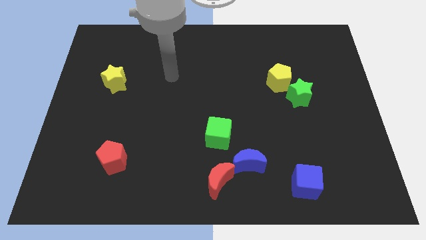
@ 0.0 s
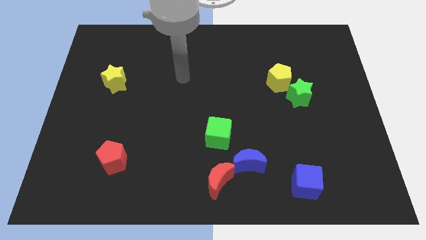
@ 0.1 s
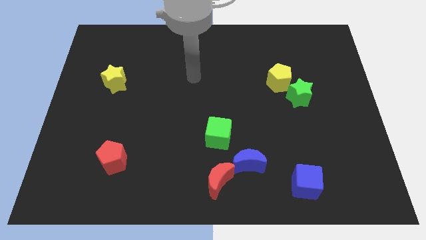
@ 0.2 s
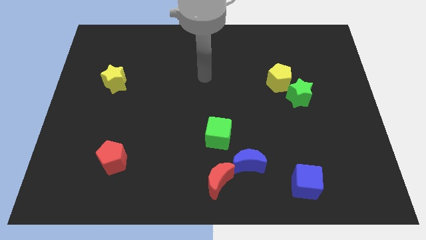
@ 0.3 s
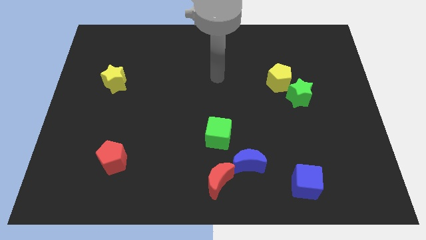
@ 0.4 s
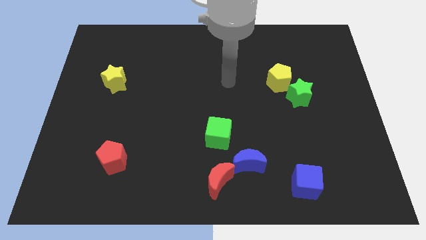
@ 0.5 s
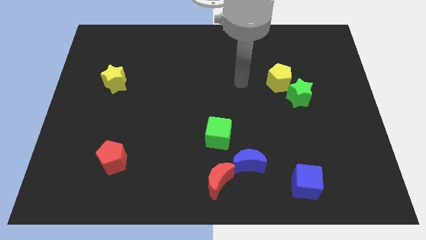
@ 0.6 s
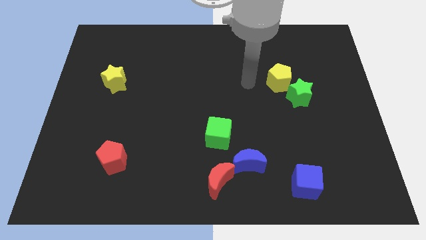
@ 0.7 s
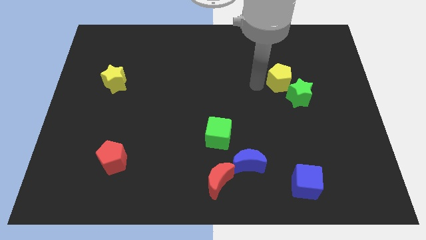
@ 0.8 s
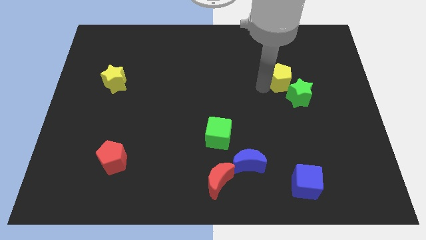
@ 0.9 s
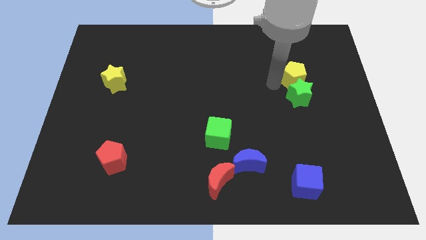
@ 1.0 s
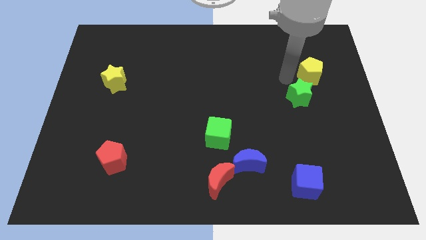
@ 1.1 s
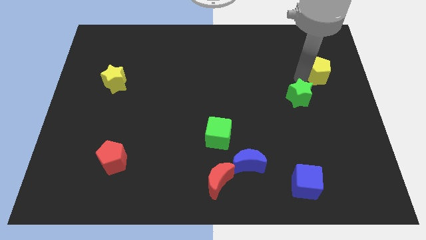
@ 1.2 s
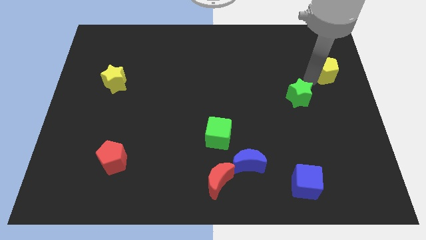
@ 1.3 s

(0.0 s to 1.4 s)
pull the green star apart from the yellow pentagon

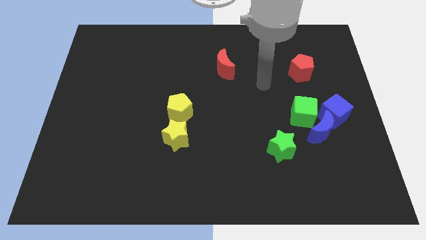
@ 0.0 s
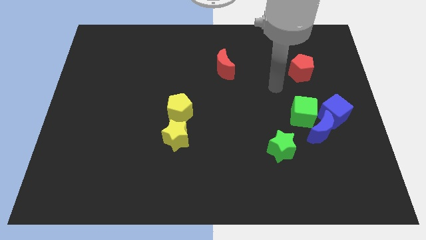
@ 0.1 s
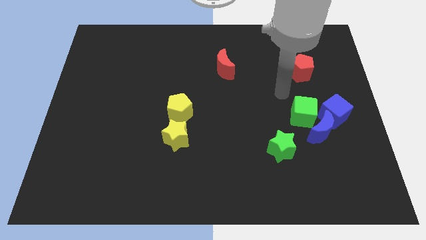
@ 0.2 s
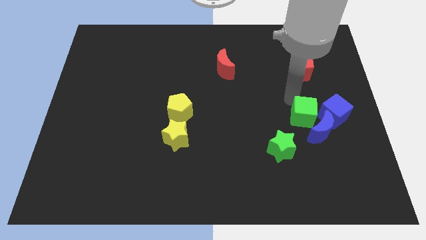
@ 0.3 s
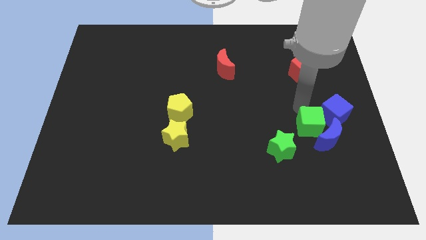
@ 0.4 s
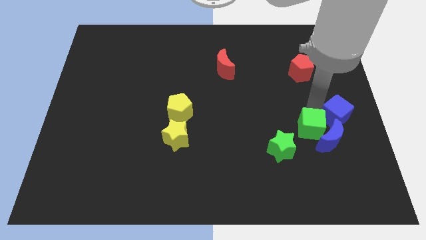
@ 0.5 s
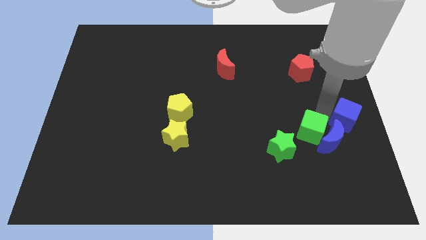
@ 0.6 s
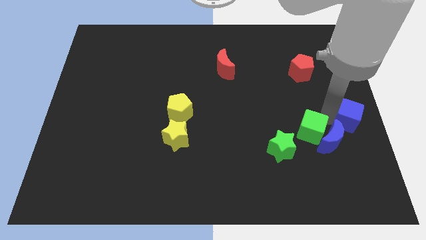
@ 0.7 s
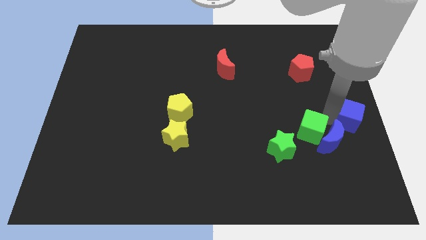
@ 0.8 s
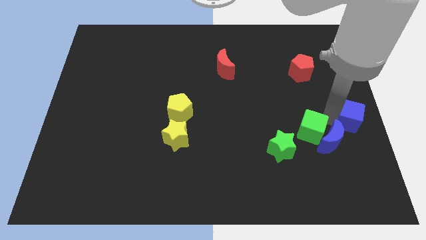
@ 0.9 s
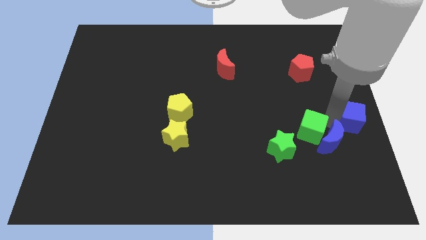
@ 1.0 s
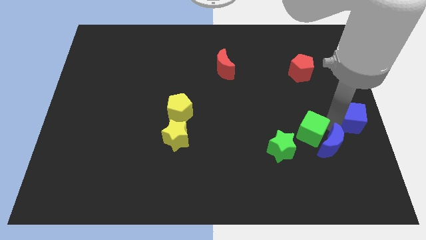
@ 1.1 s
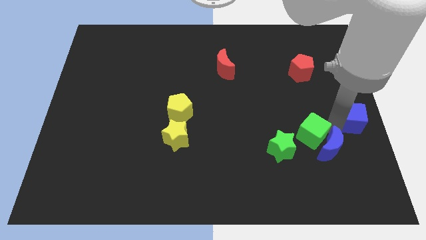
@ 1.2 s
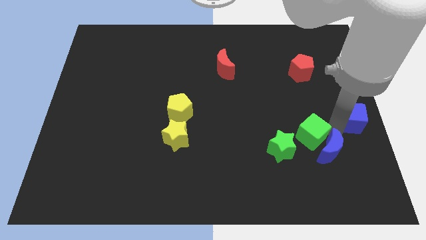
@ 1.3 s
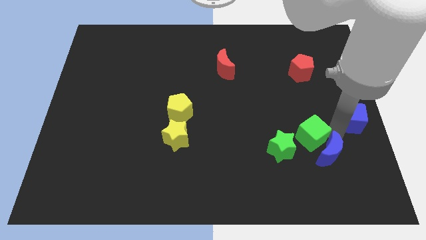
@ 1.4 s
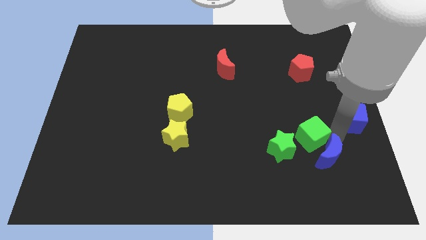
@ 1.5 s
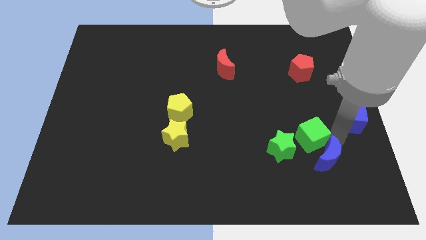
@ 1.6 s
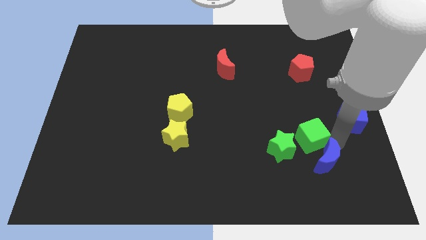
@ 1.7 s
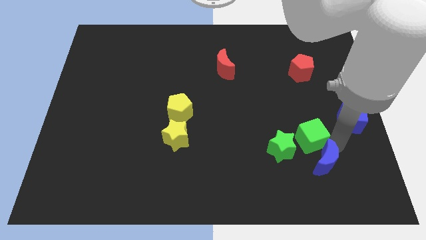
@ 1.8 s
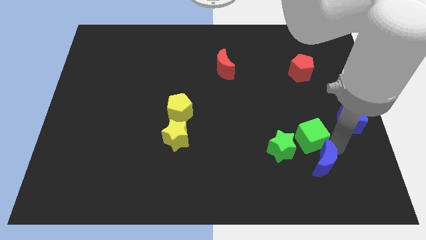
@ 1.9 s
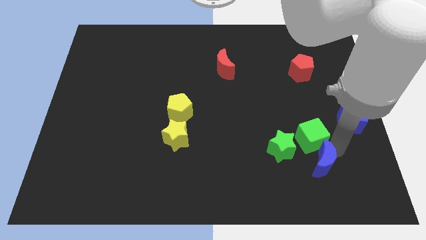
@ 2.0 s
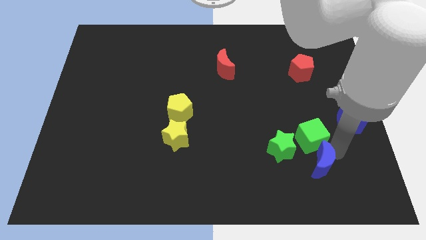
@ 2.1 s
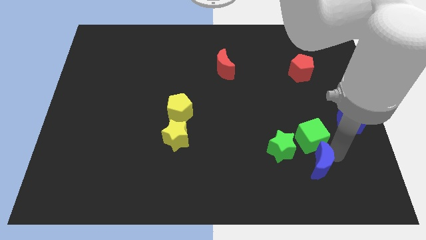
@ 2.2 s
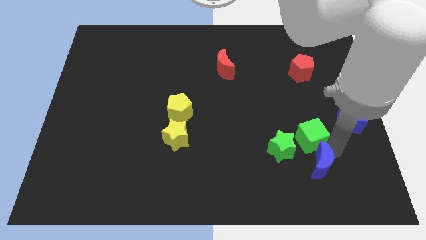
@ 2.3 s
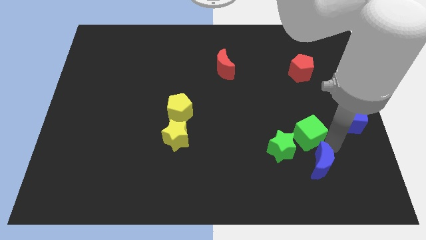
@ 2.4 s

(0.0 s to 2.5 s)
move the blue moon away from the green cube and blue cube

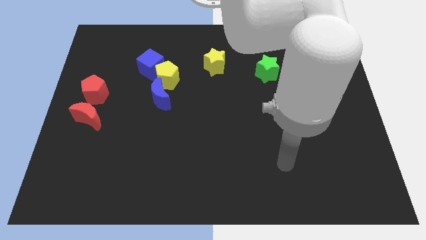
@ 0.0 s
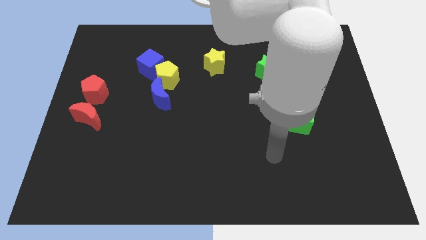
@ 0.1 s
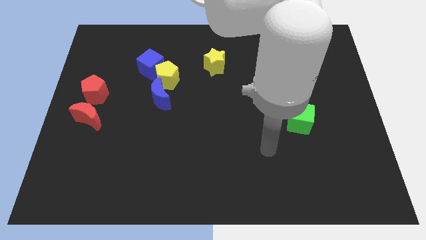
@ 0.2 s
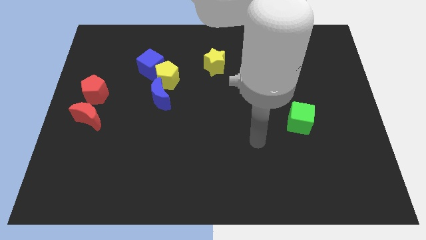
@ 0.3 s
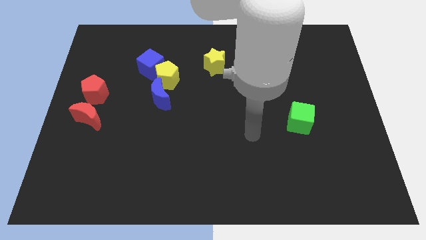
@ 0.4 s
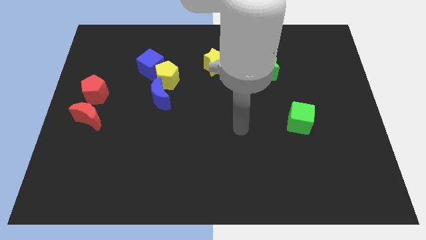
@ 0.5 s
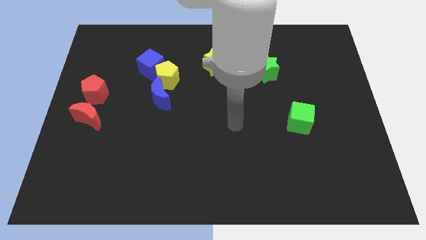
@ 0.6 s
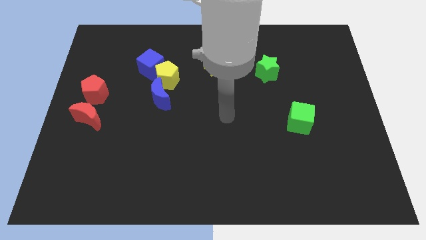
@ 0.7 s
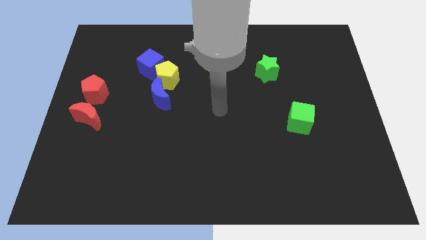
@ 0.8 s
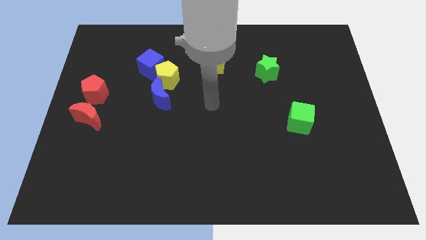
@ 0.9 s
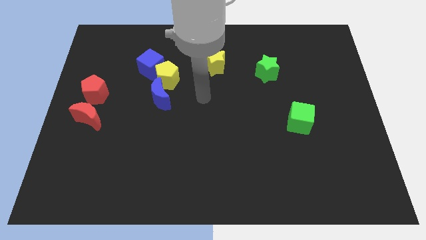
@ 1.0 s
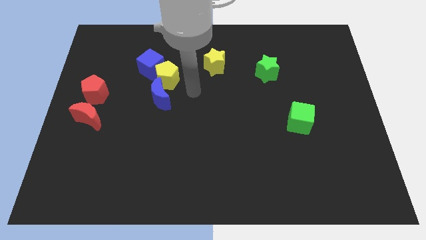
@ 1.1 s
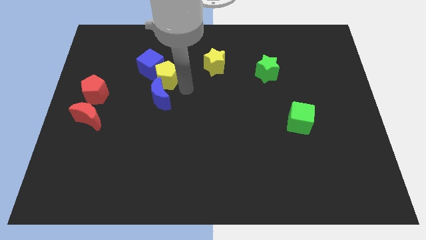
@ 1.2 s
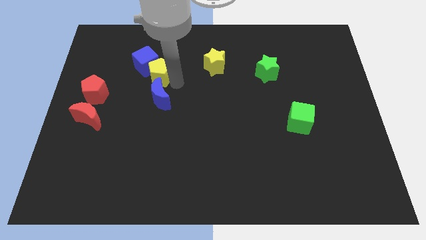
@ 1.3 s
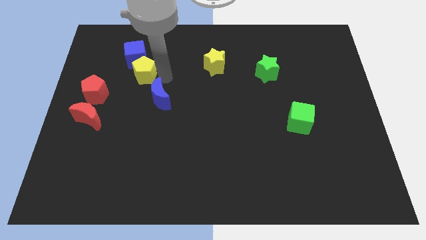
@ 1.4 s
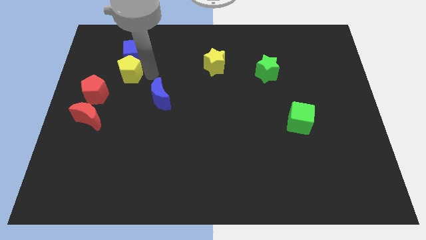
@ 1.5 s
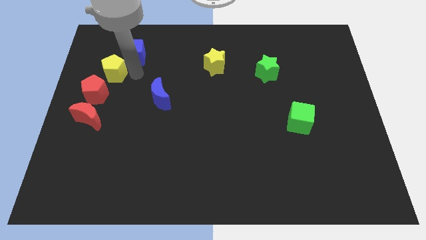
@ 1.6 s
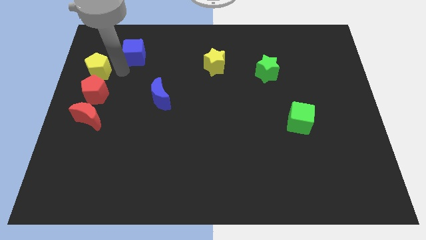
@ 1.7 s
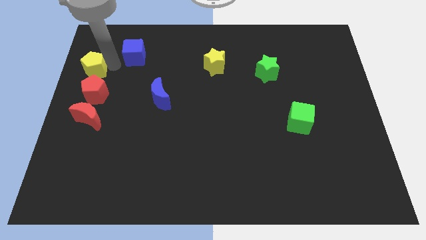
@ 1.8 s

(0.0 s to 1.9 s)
move the blue cube away from the yellow pentagon

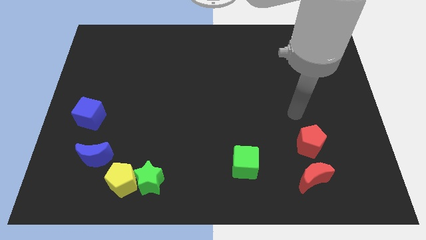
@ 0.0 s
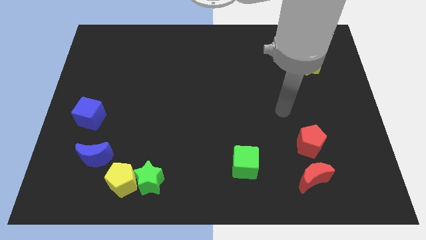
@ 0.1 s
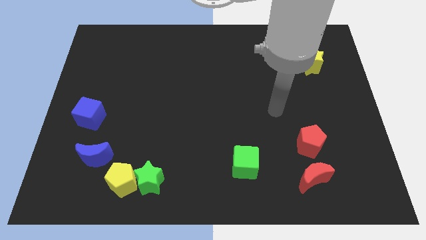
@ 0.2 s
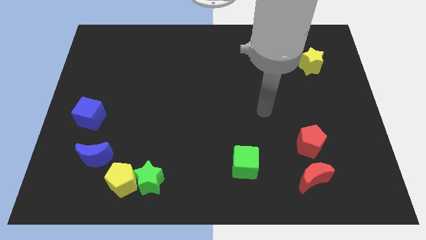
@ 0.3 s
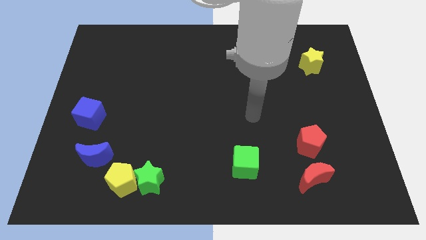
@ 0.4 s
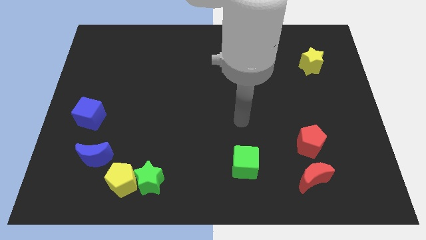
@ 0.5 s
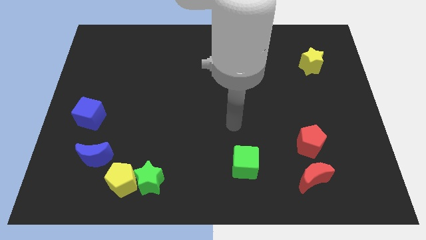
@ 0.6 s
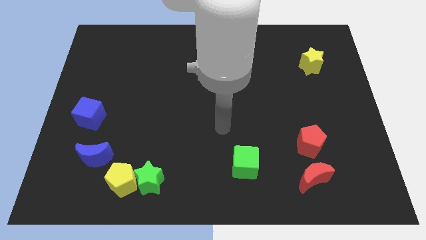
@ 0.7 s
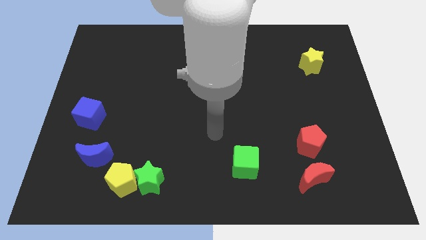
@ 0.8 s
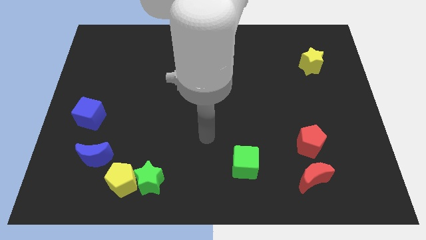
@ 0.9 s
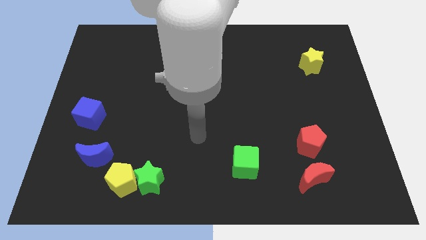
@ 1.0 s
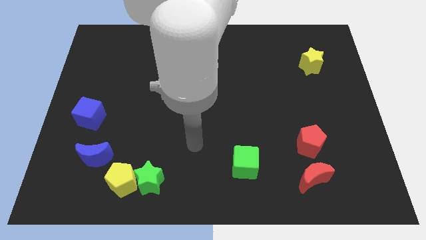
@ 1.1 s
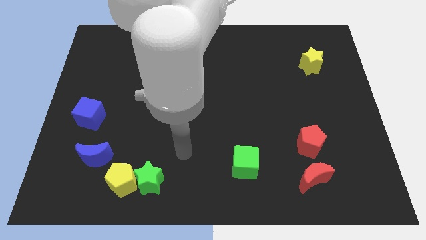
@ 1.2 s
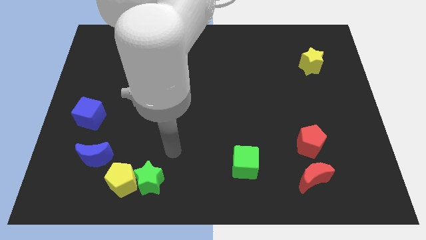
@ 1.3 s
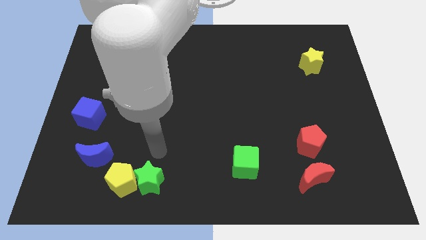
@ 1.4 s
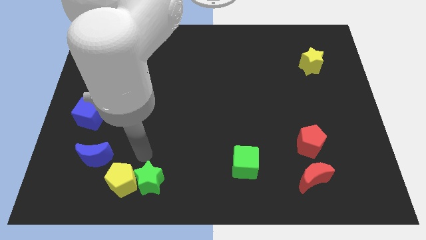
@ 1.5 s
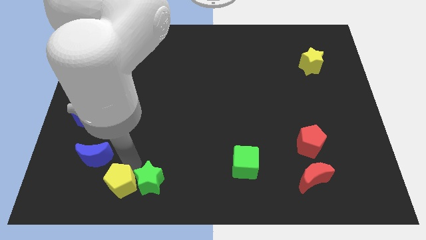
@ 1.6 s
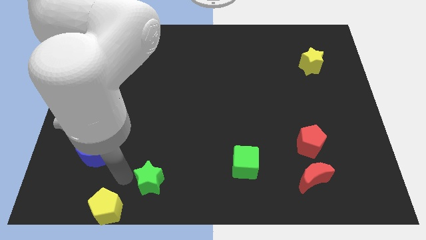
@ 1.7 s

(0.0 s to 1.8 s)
move the green star away from the yellow pentagon

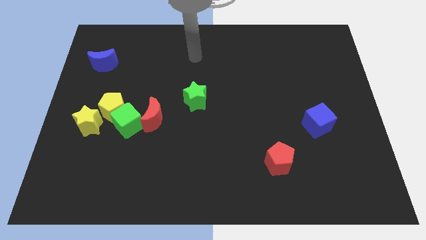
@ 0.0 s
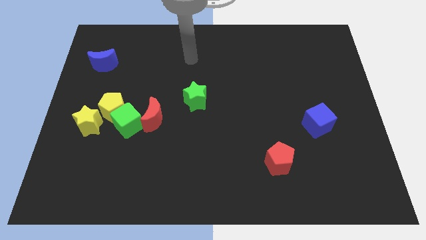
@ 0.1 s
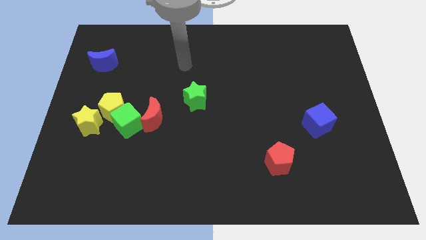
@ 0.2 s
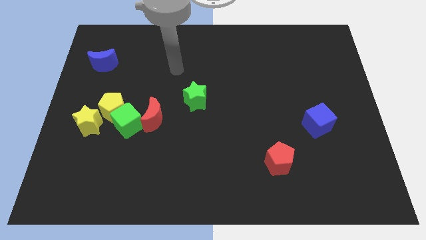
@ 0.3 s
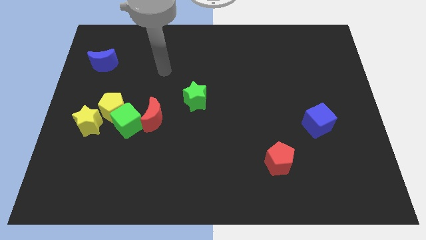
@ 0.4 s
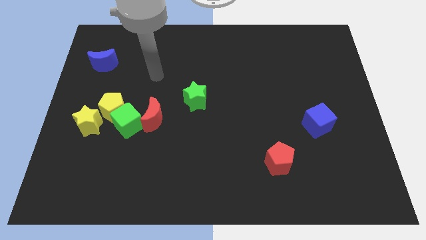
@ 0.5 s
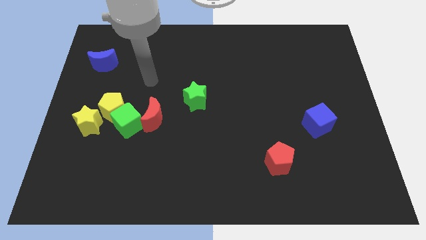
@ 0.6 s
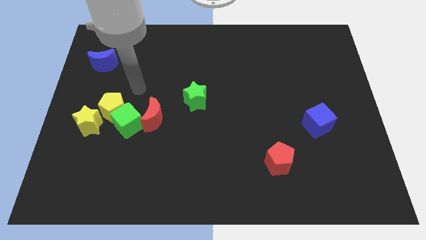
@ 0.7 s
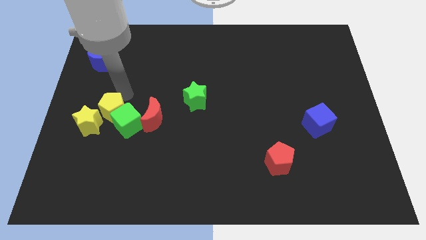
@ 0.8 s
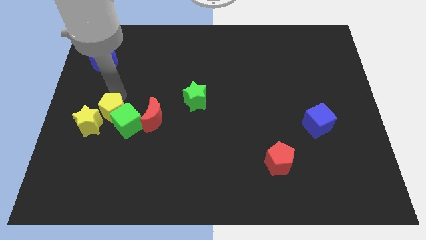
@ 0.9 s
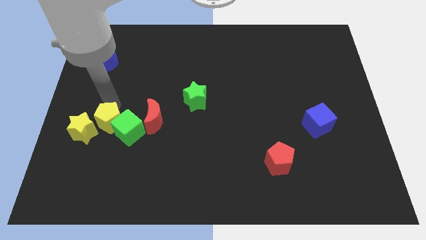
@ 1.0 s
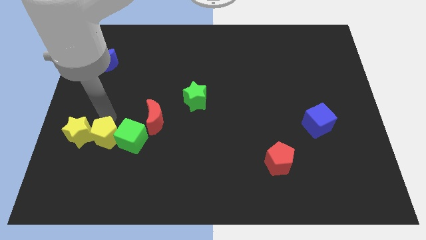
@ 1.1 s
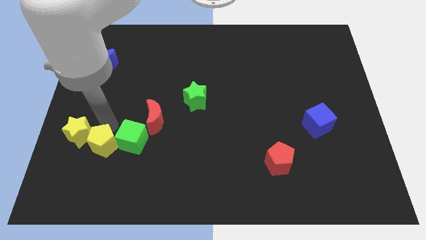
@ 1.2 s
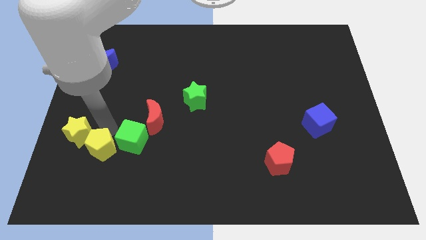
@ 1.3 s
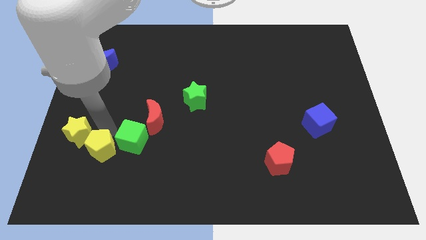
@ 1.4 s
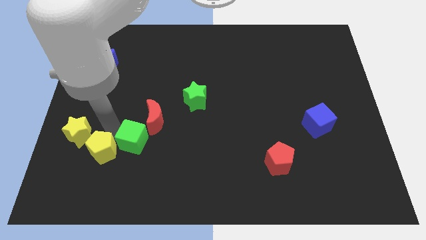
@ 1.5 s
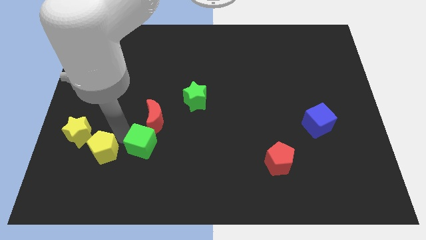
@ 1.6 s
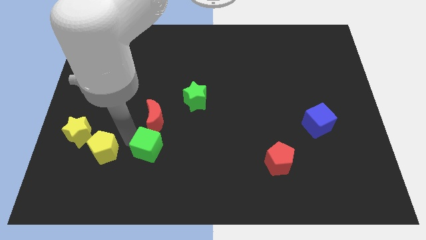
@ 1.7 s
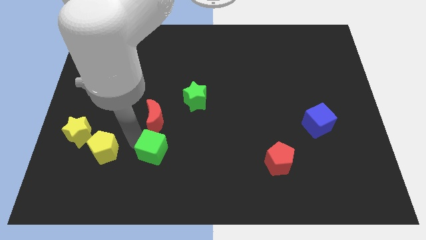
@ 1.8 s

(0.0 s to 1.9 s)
pull the green cube apart from the yellow pentagon, red moon, and yellow star
